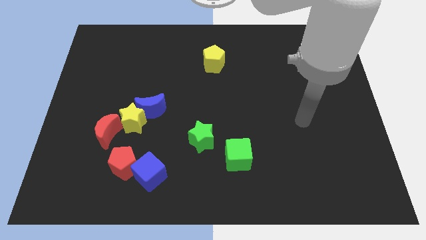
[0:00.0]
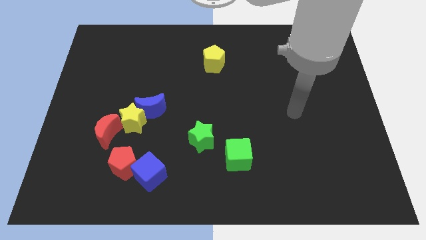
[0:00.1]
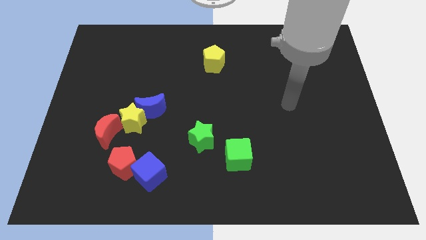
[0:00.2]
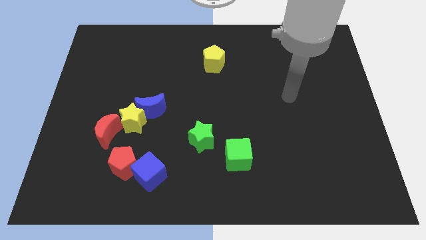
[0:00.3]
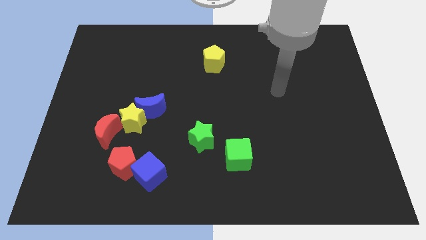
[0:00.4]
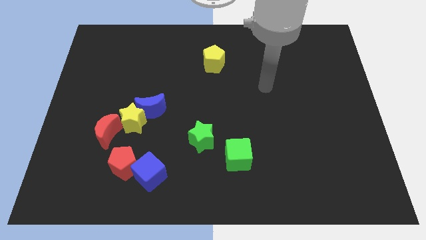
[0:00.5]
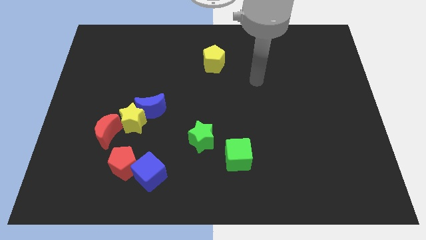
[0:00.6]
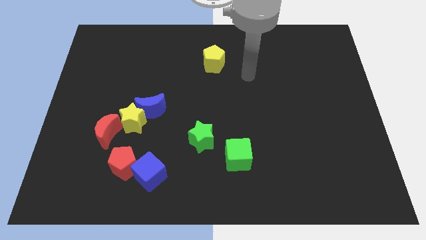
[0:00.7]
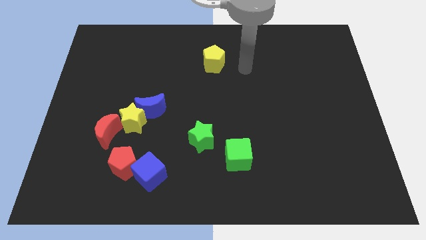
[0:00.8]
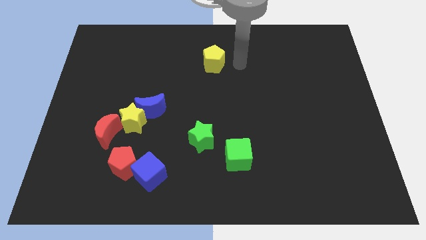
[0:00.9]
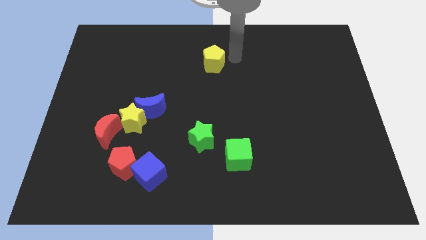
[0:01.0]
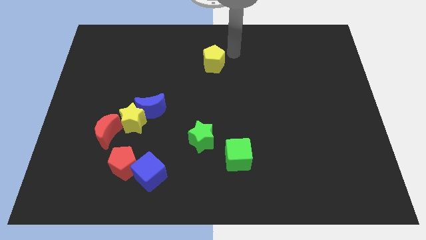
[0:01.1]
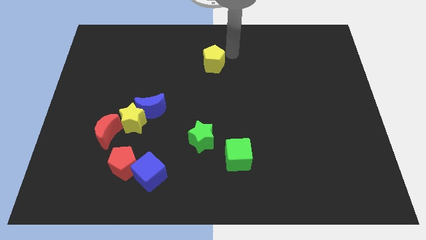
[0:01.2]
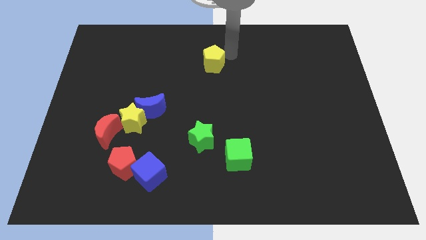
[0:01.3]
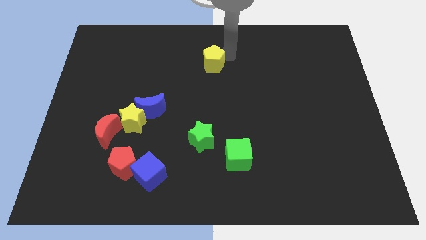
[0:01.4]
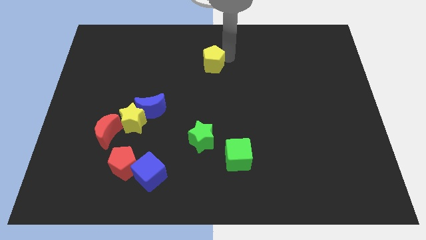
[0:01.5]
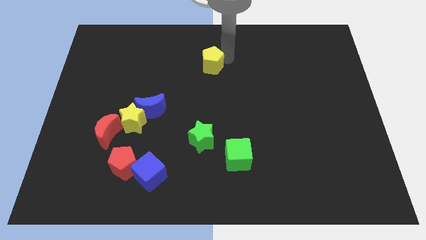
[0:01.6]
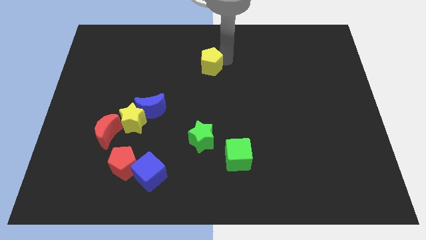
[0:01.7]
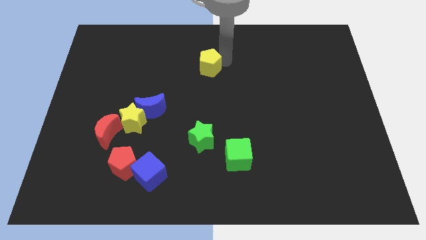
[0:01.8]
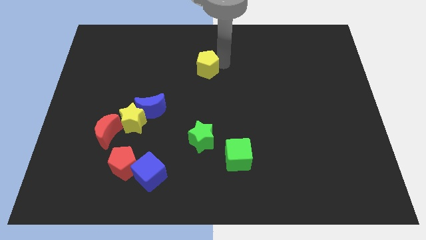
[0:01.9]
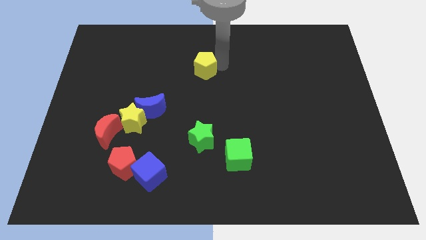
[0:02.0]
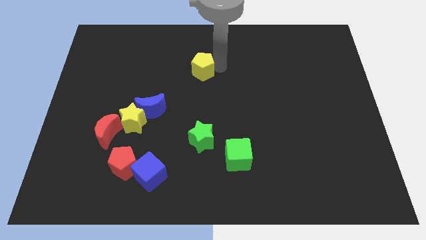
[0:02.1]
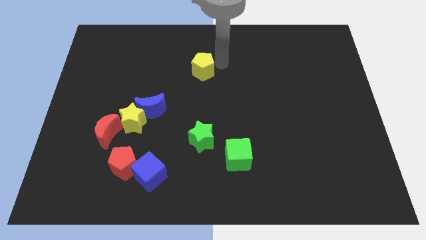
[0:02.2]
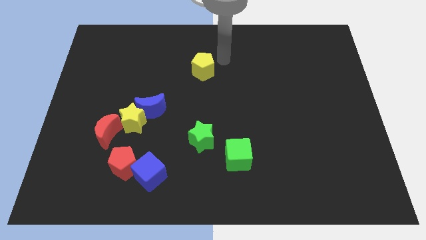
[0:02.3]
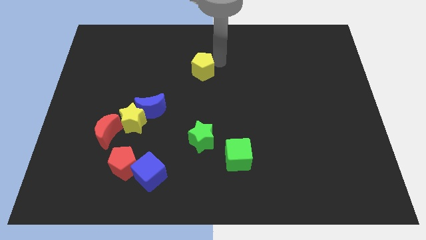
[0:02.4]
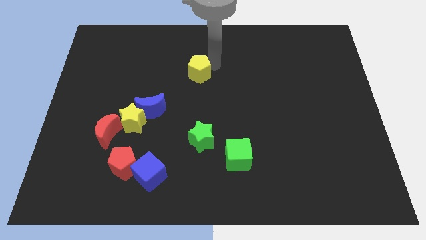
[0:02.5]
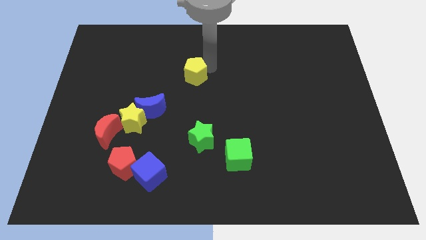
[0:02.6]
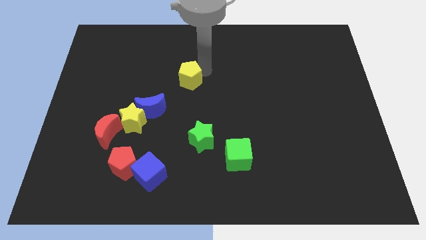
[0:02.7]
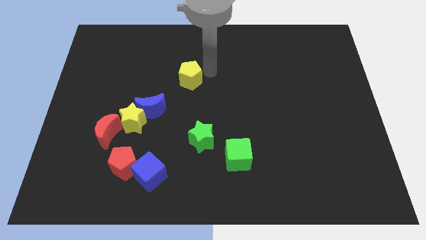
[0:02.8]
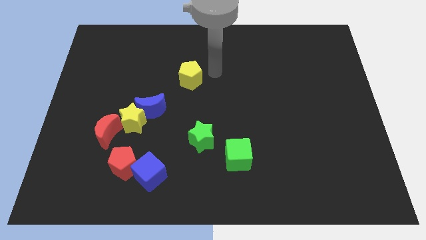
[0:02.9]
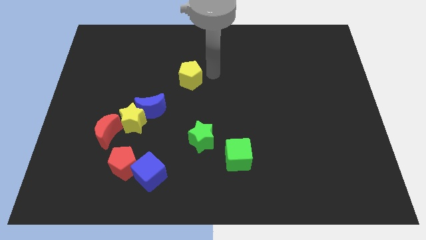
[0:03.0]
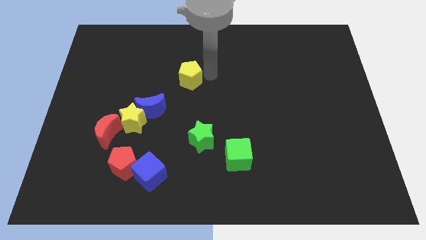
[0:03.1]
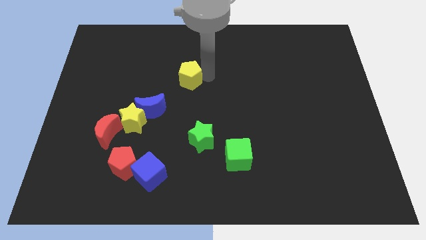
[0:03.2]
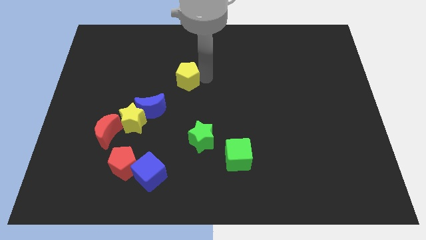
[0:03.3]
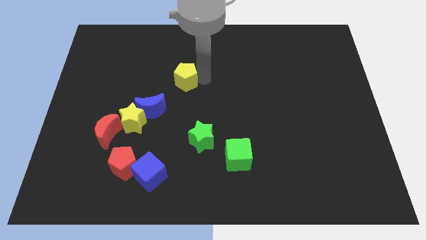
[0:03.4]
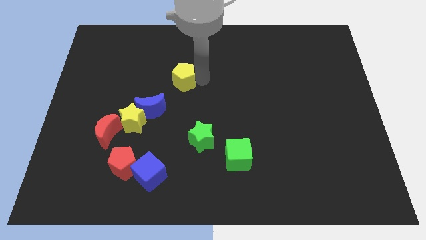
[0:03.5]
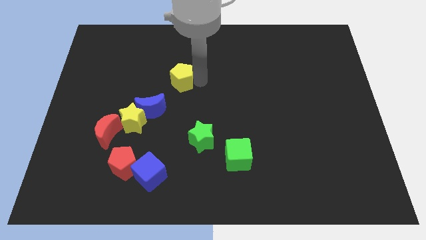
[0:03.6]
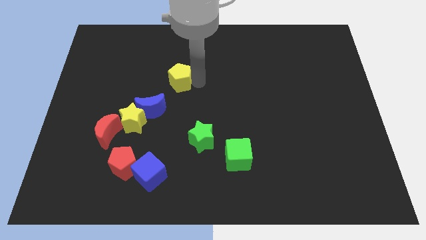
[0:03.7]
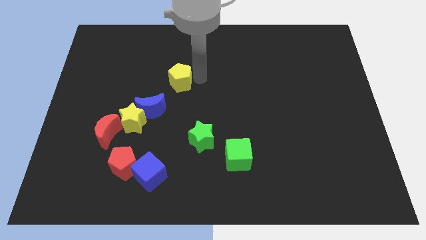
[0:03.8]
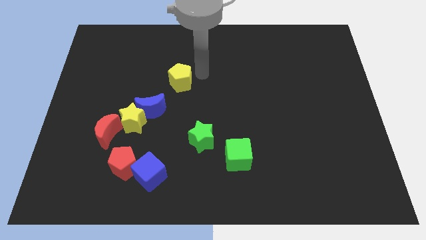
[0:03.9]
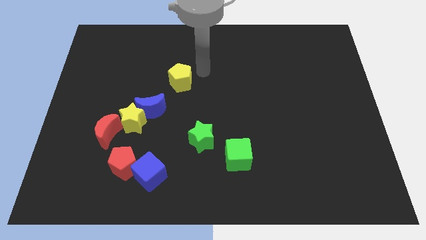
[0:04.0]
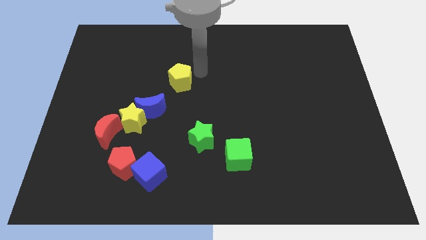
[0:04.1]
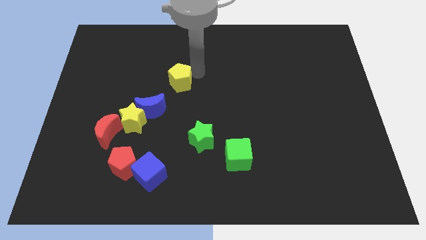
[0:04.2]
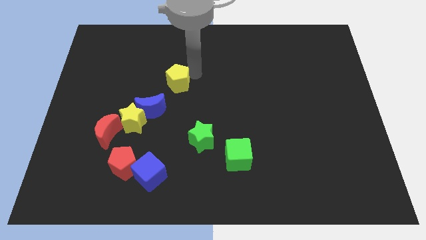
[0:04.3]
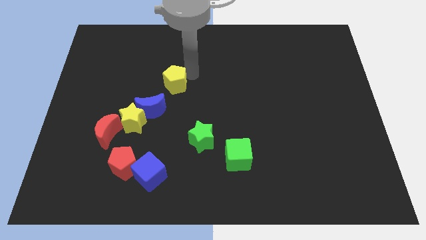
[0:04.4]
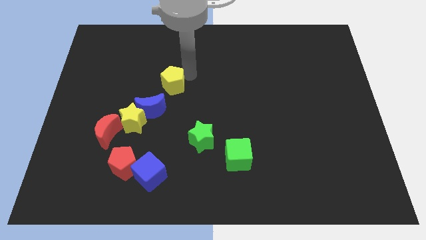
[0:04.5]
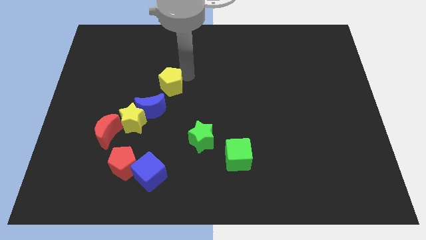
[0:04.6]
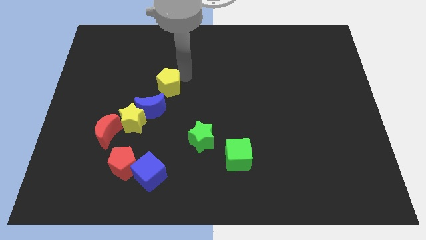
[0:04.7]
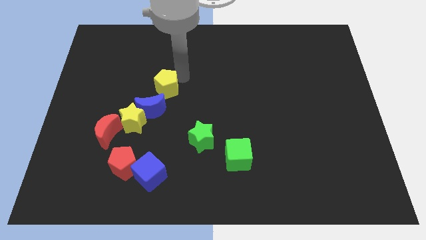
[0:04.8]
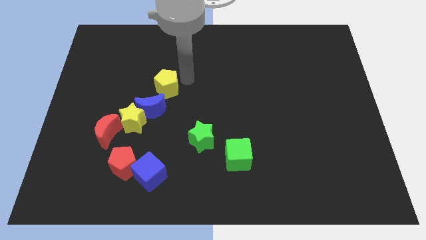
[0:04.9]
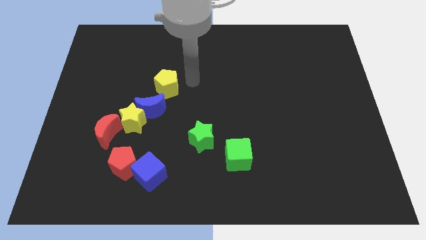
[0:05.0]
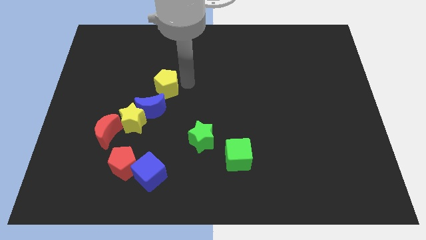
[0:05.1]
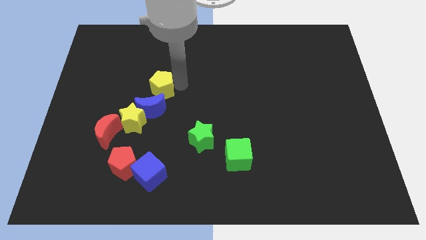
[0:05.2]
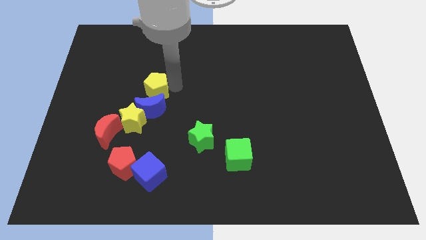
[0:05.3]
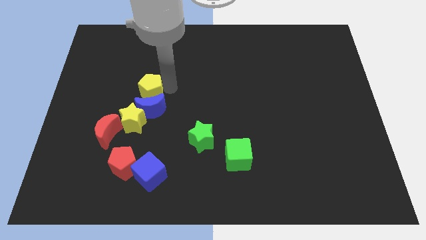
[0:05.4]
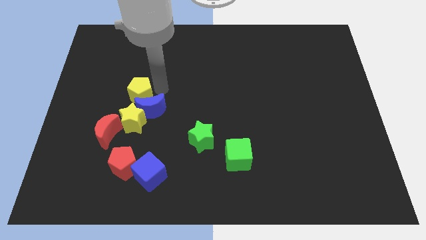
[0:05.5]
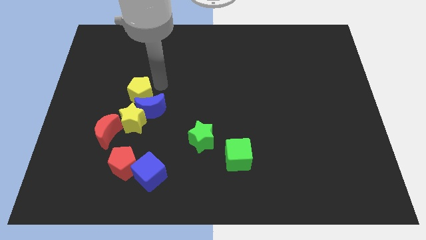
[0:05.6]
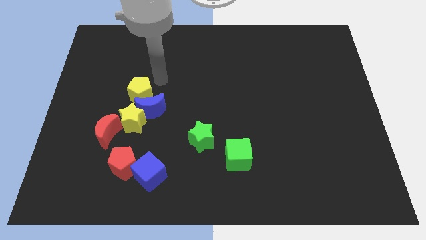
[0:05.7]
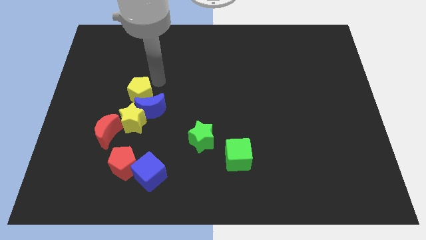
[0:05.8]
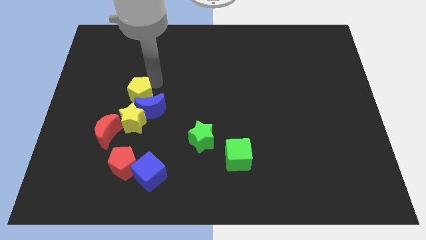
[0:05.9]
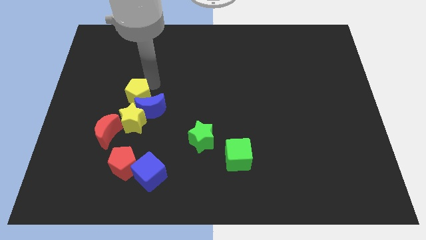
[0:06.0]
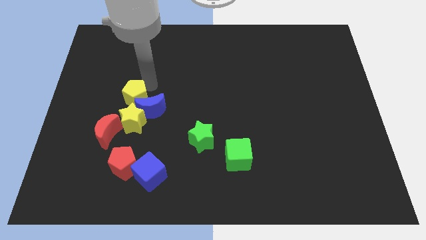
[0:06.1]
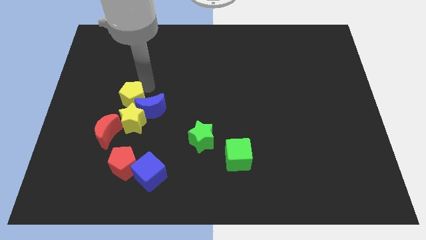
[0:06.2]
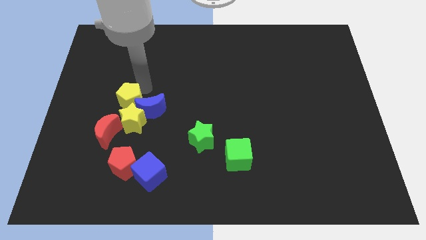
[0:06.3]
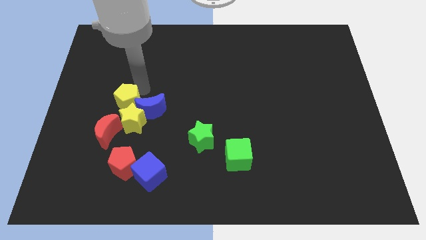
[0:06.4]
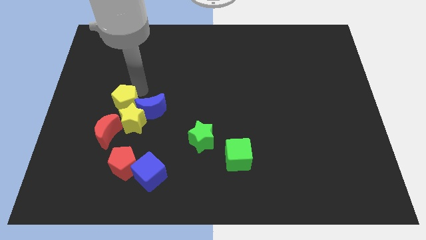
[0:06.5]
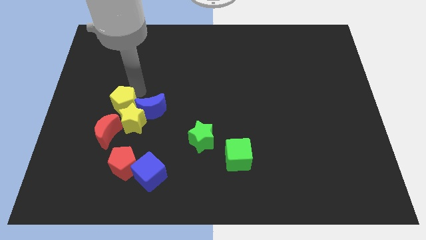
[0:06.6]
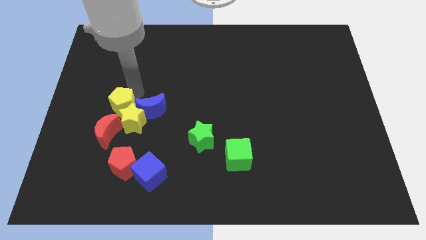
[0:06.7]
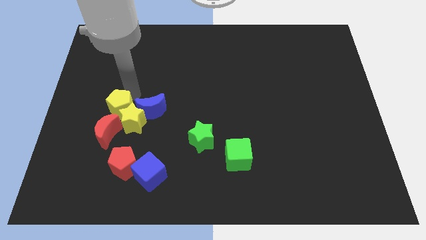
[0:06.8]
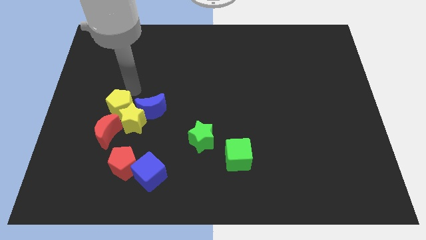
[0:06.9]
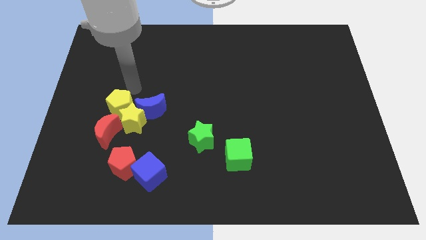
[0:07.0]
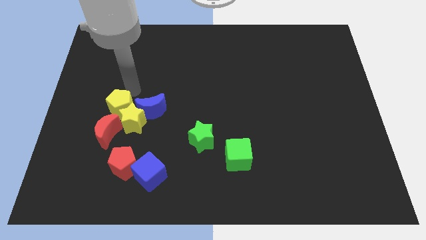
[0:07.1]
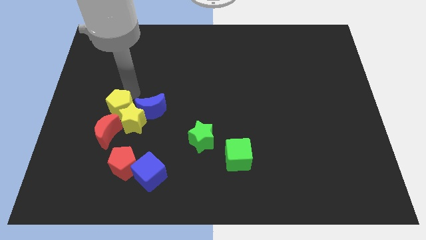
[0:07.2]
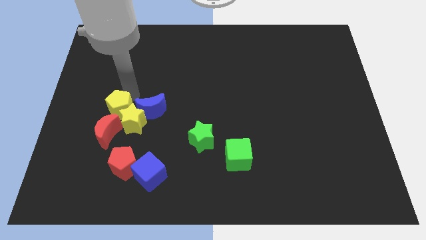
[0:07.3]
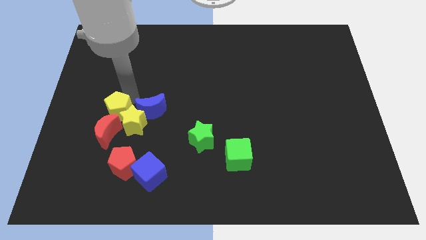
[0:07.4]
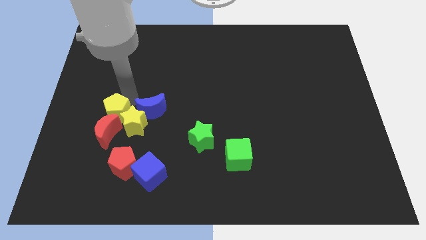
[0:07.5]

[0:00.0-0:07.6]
move the yellow pentagon close to the red moon
